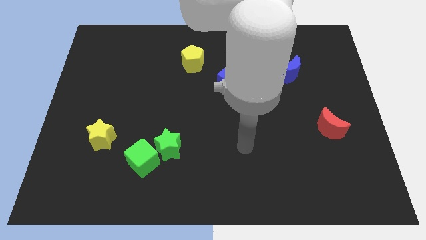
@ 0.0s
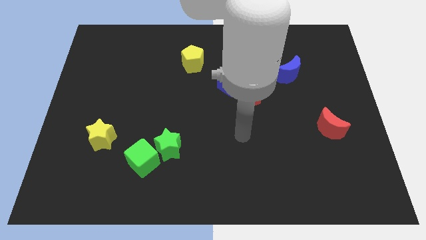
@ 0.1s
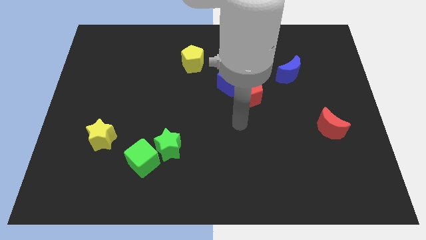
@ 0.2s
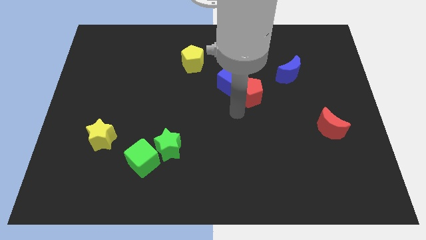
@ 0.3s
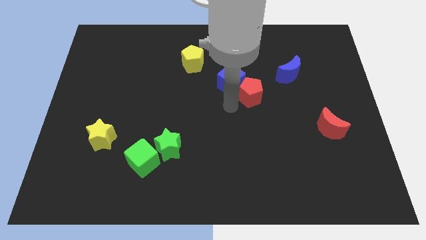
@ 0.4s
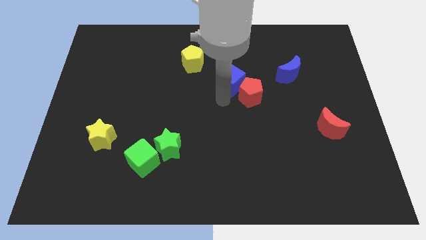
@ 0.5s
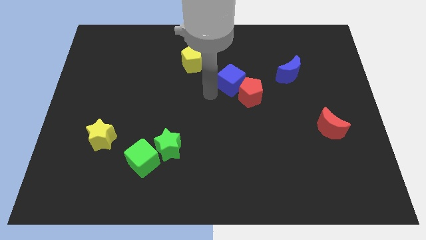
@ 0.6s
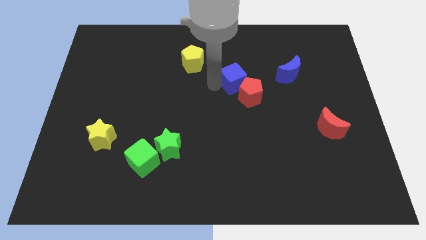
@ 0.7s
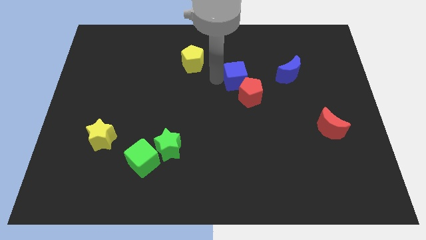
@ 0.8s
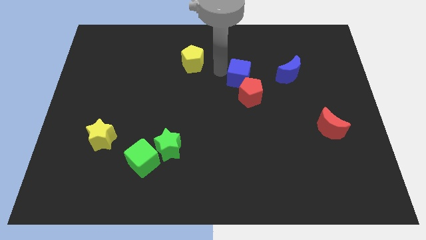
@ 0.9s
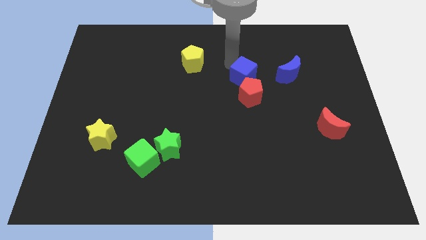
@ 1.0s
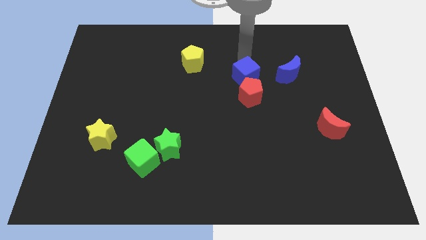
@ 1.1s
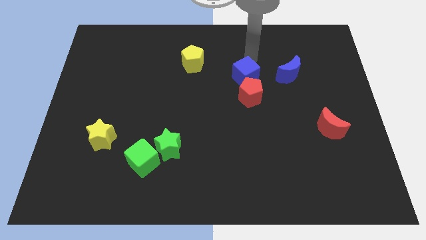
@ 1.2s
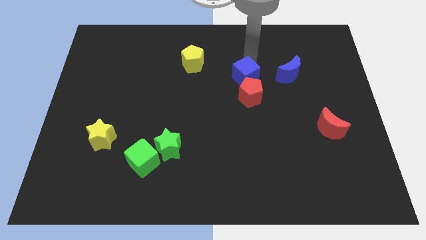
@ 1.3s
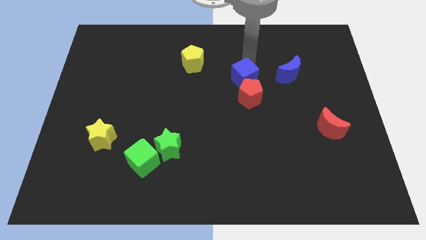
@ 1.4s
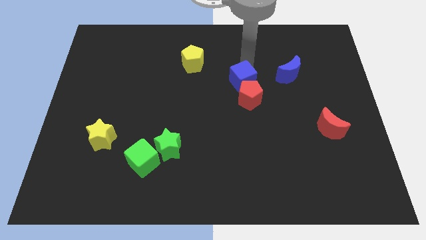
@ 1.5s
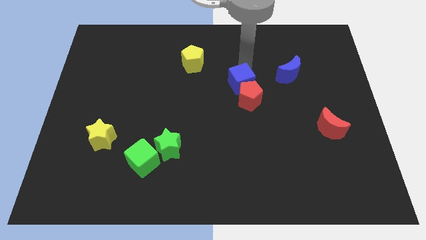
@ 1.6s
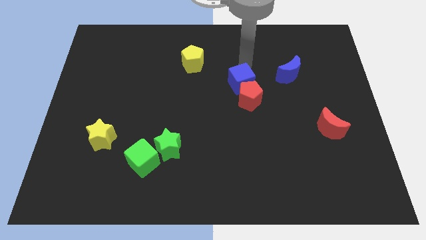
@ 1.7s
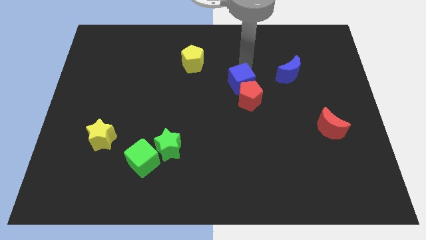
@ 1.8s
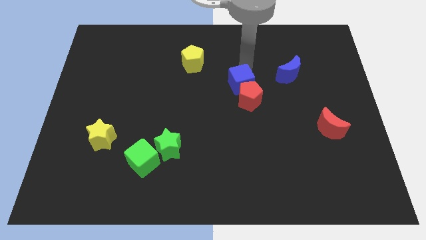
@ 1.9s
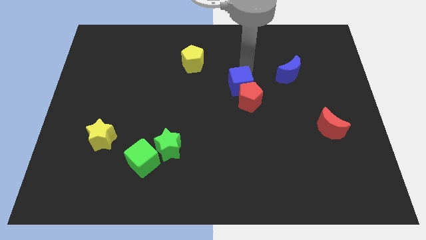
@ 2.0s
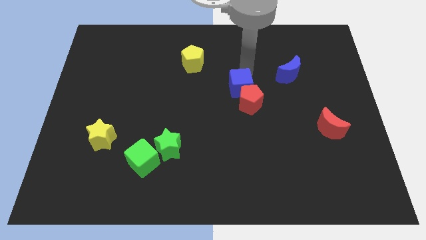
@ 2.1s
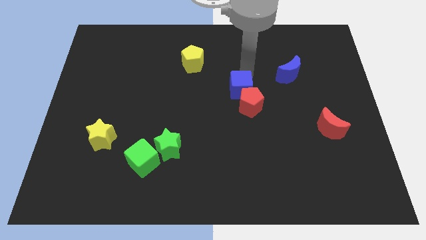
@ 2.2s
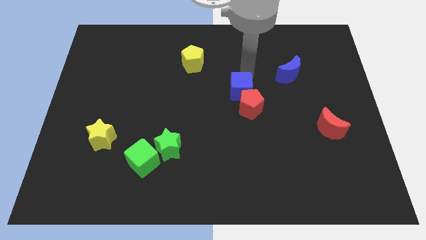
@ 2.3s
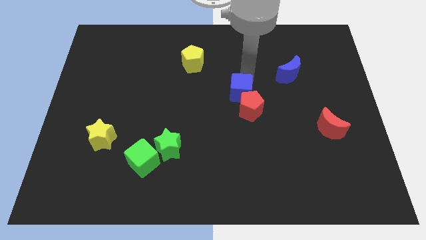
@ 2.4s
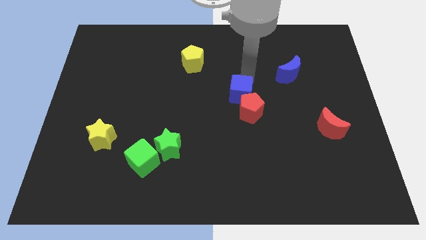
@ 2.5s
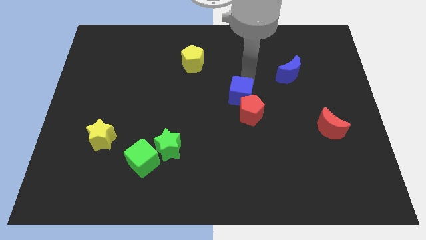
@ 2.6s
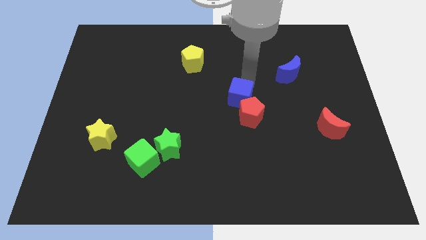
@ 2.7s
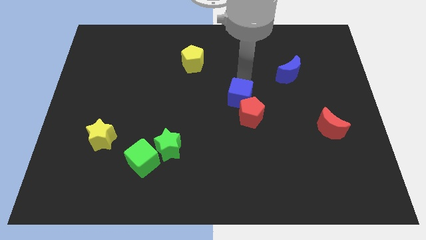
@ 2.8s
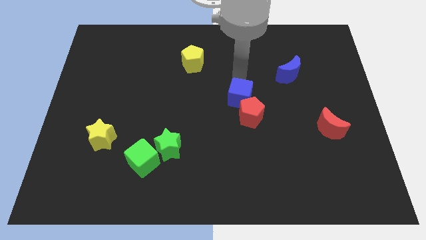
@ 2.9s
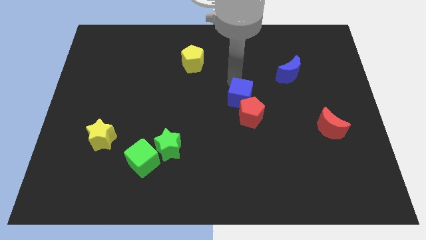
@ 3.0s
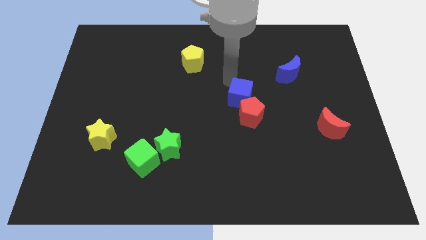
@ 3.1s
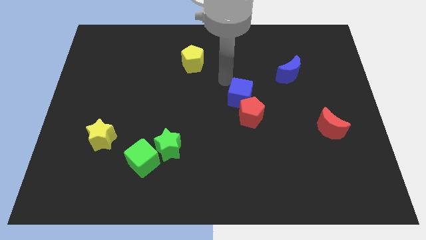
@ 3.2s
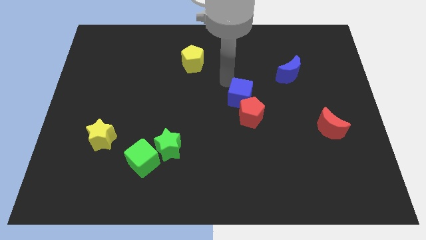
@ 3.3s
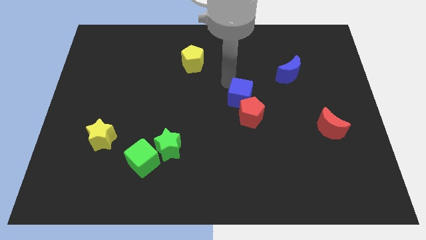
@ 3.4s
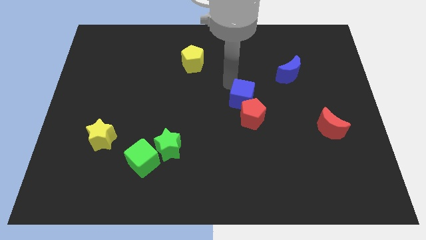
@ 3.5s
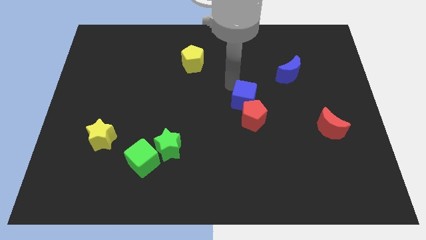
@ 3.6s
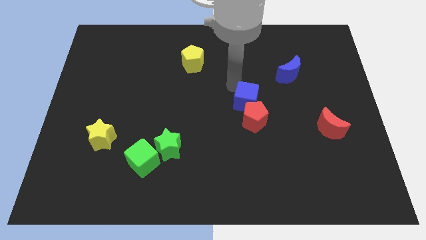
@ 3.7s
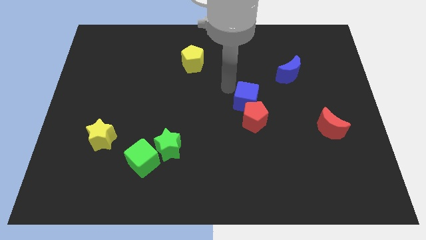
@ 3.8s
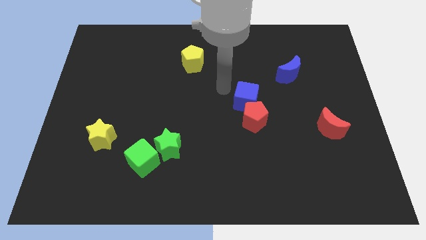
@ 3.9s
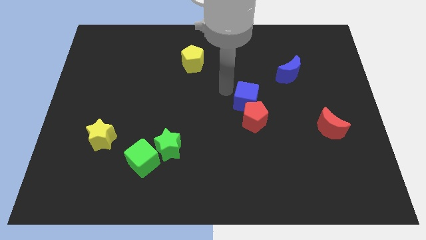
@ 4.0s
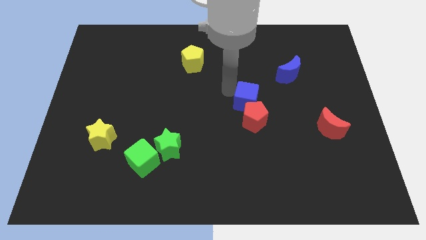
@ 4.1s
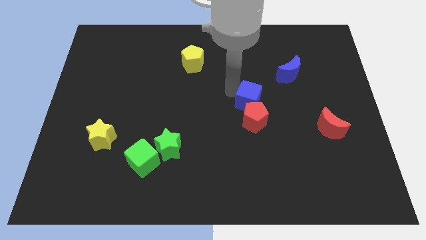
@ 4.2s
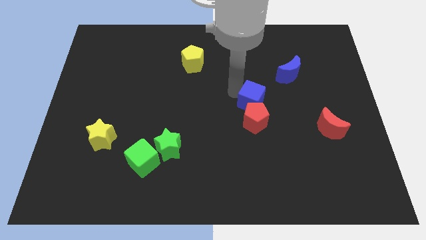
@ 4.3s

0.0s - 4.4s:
move the blue cube diagonally downwards and right a little

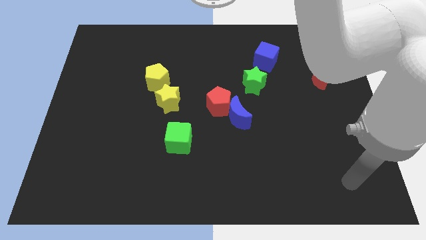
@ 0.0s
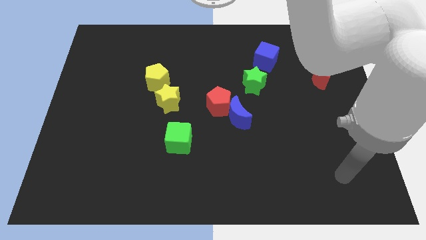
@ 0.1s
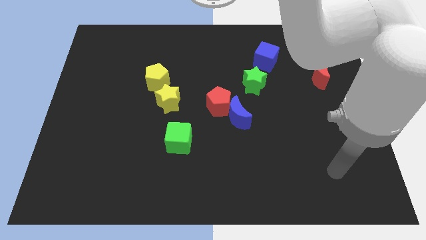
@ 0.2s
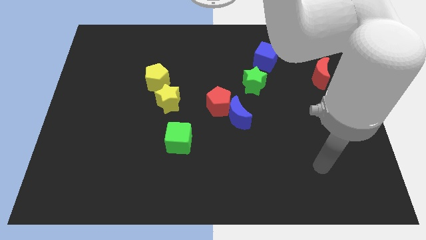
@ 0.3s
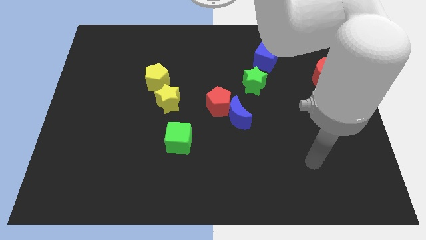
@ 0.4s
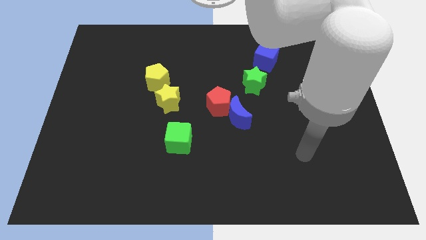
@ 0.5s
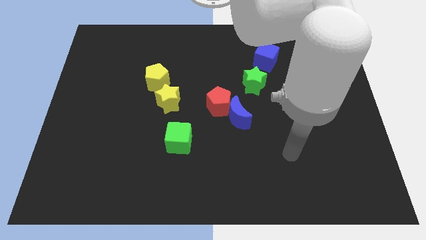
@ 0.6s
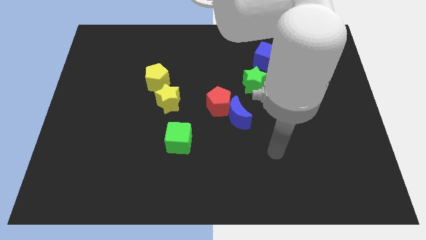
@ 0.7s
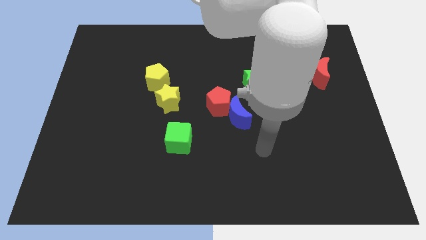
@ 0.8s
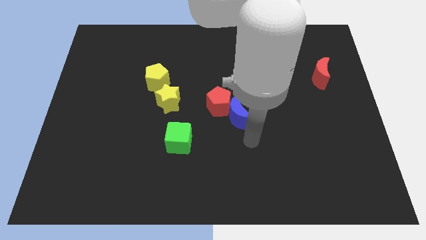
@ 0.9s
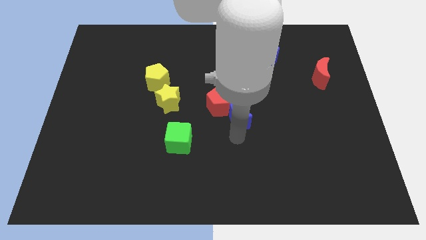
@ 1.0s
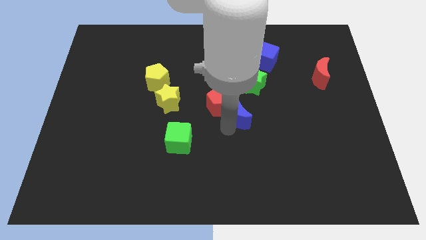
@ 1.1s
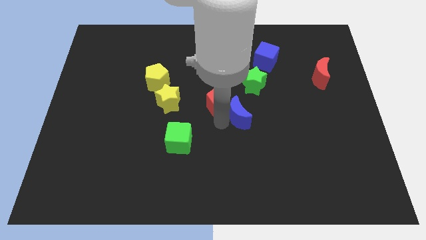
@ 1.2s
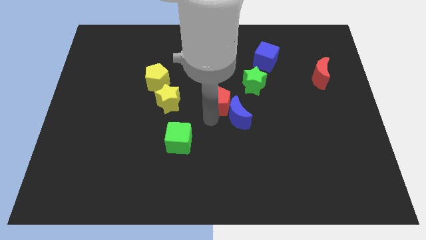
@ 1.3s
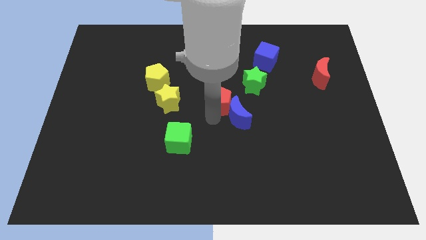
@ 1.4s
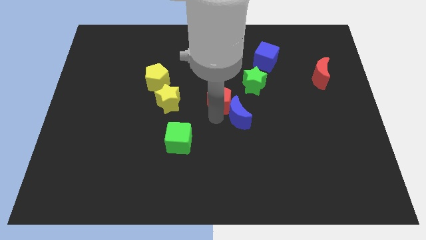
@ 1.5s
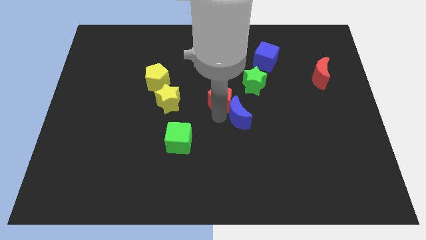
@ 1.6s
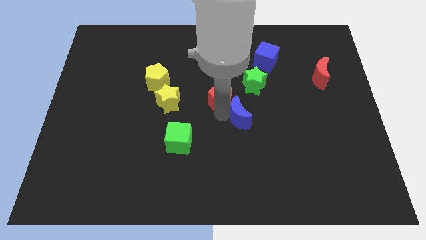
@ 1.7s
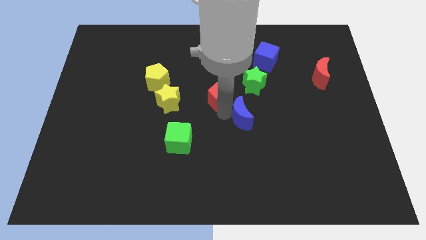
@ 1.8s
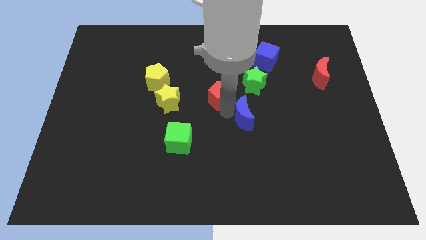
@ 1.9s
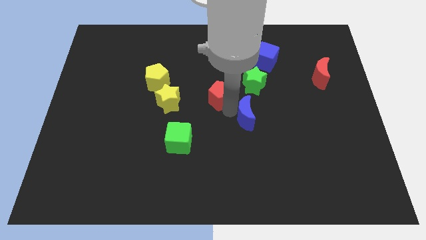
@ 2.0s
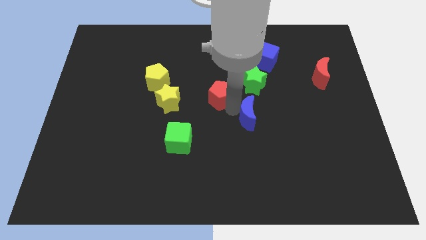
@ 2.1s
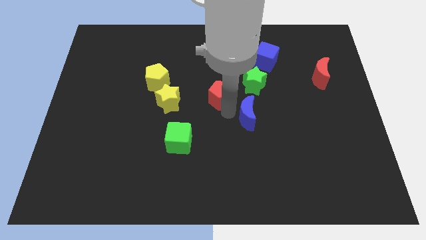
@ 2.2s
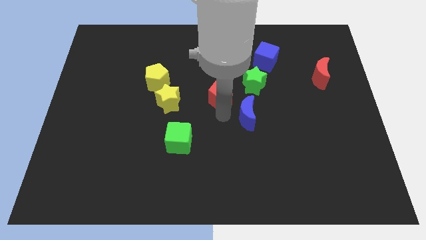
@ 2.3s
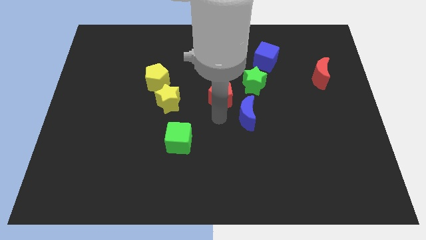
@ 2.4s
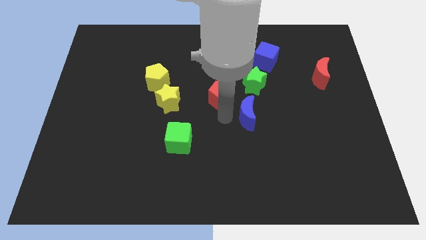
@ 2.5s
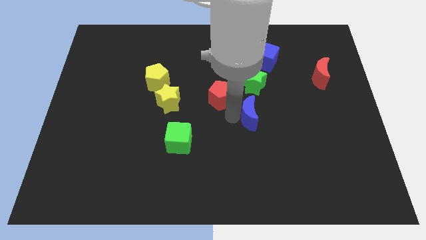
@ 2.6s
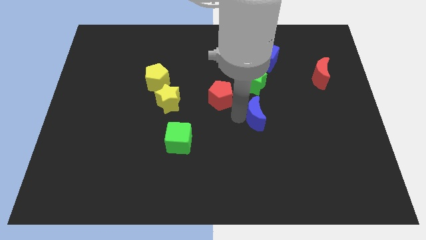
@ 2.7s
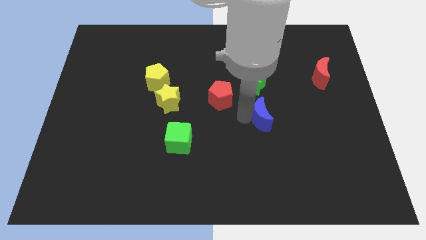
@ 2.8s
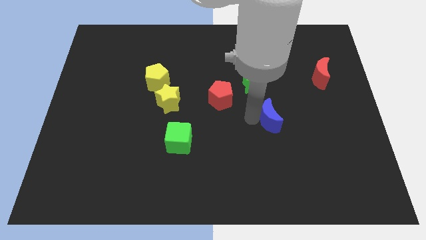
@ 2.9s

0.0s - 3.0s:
push the blue moon right somewhat

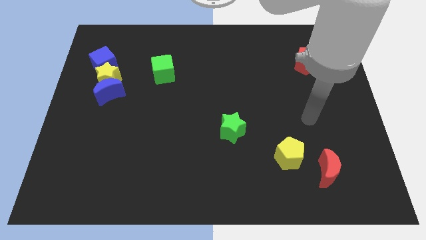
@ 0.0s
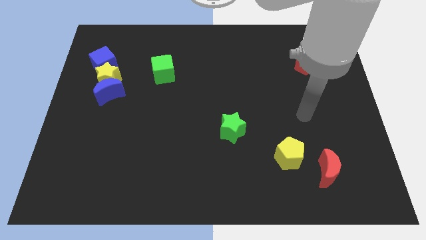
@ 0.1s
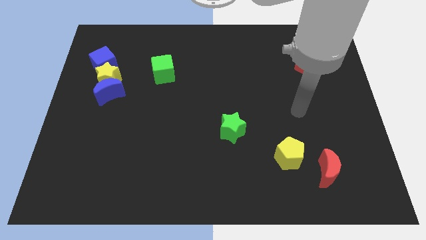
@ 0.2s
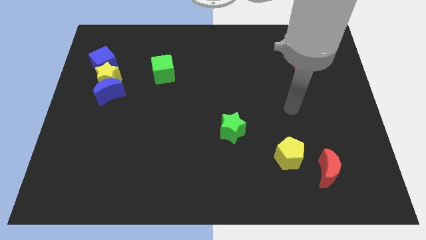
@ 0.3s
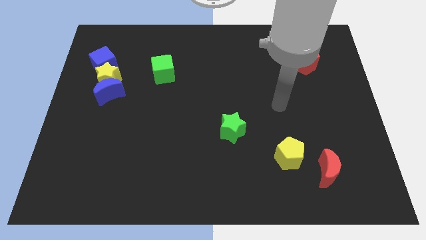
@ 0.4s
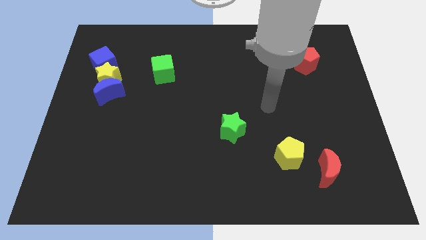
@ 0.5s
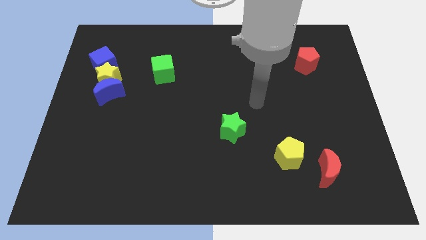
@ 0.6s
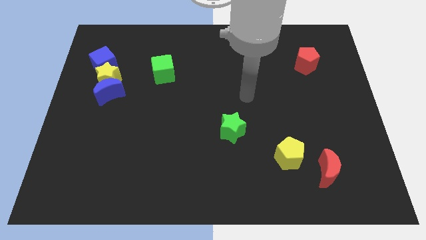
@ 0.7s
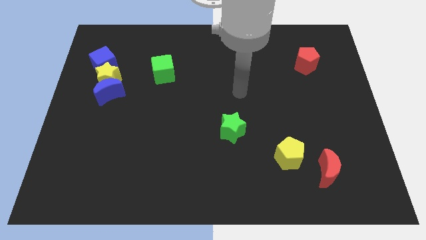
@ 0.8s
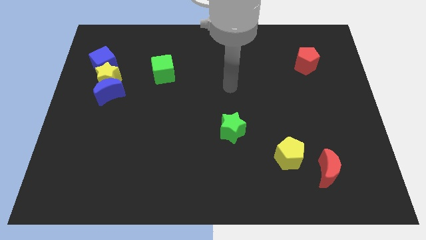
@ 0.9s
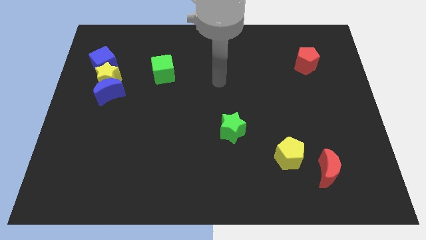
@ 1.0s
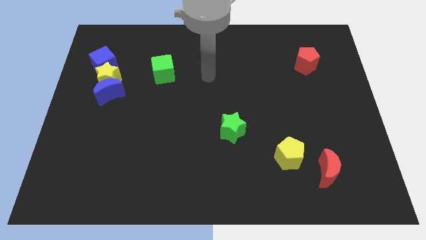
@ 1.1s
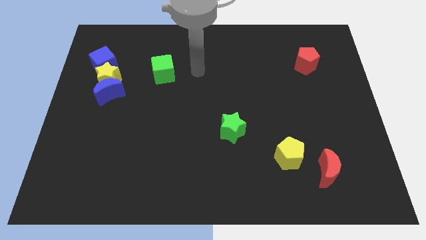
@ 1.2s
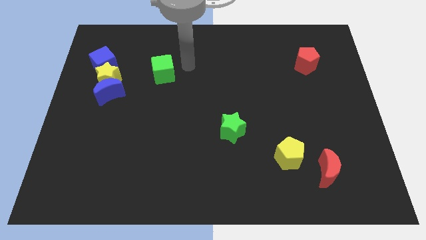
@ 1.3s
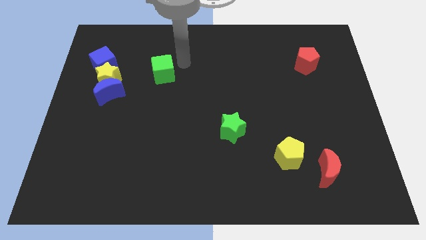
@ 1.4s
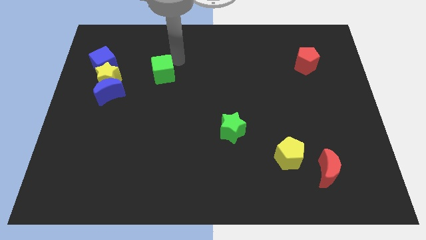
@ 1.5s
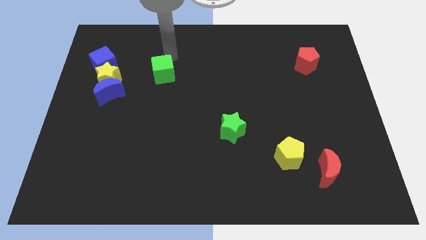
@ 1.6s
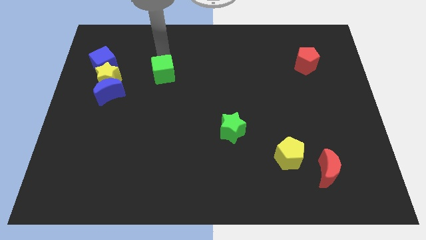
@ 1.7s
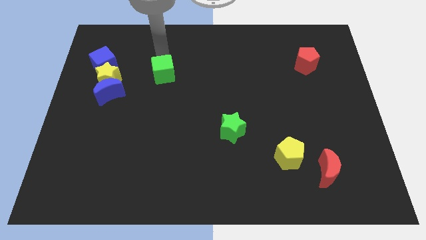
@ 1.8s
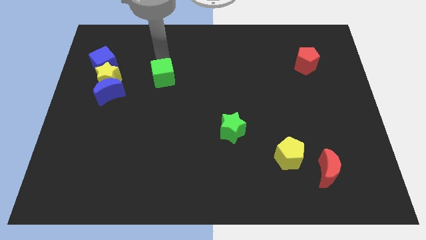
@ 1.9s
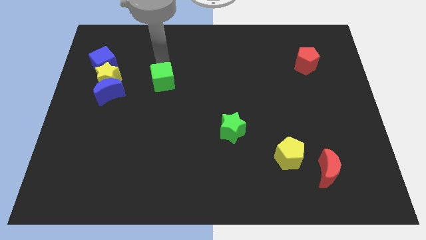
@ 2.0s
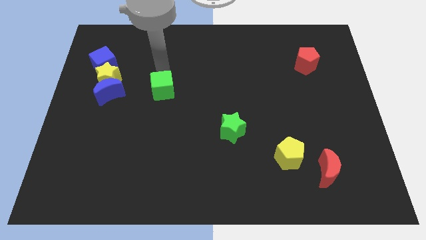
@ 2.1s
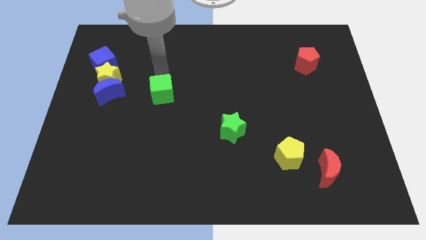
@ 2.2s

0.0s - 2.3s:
slightly push the green cube downwards
